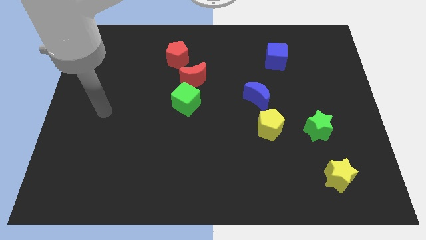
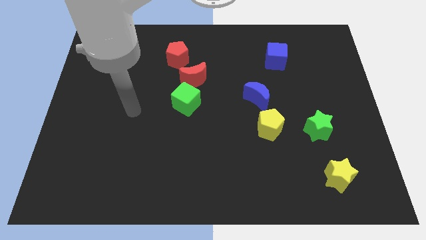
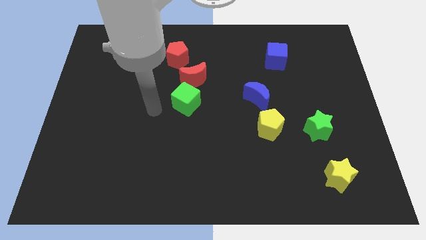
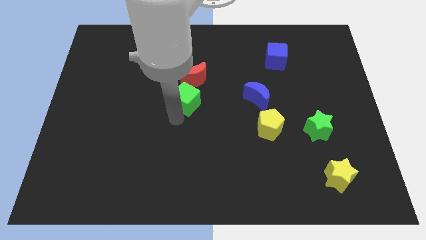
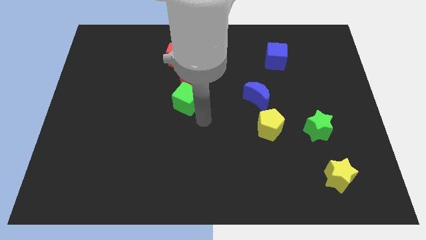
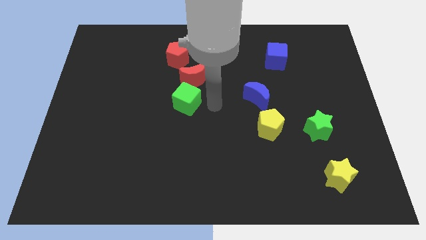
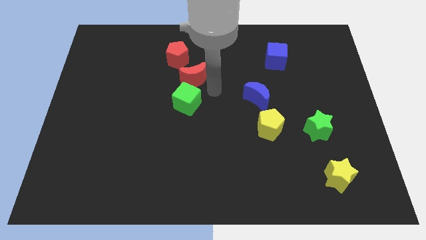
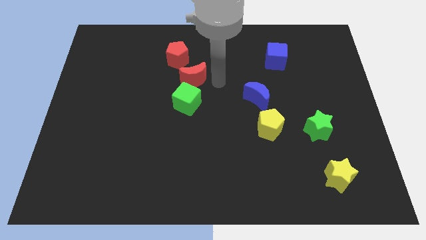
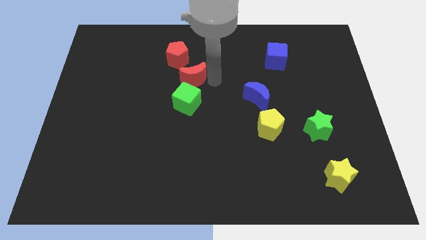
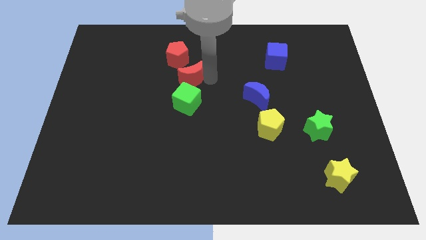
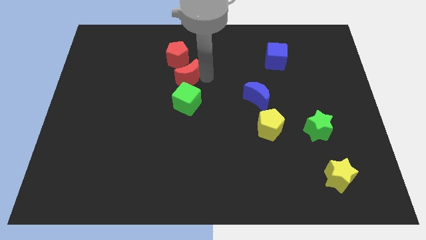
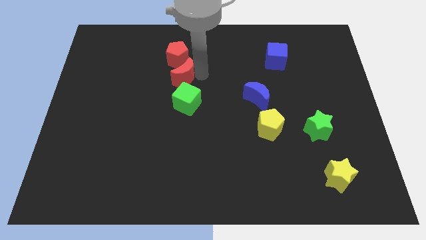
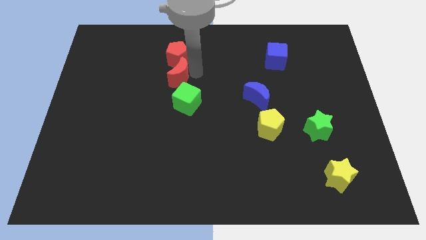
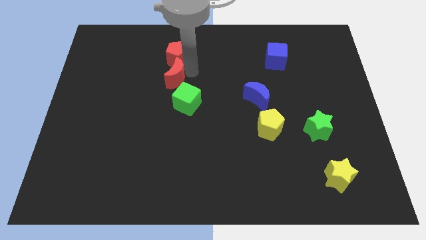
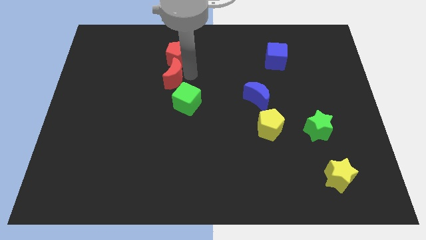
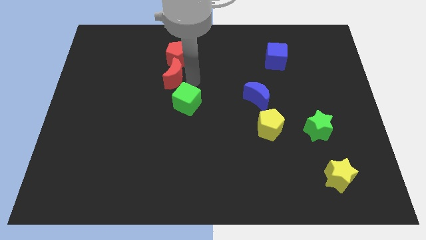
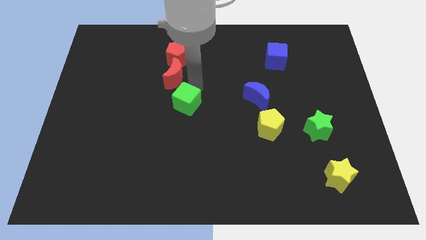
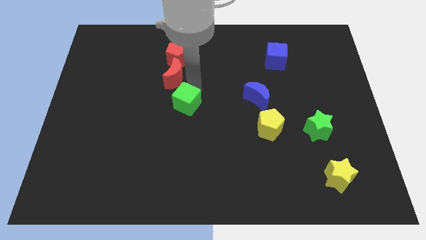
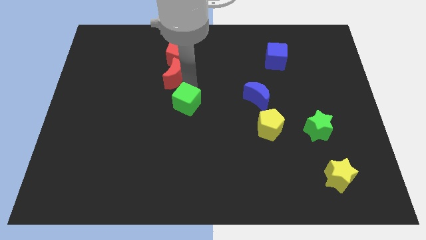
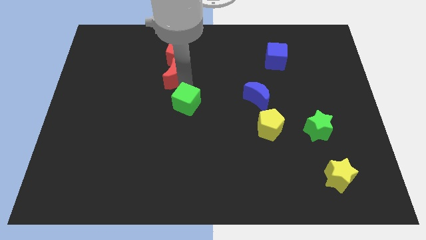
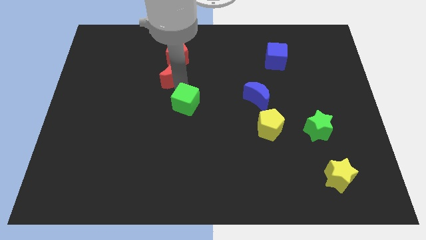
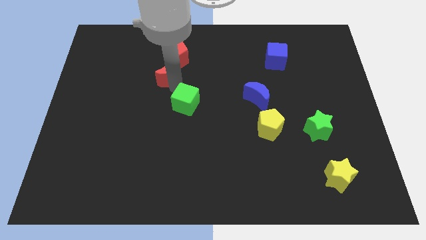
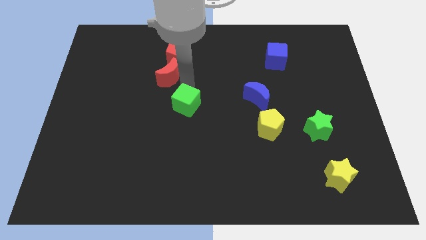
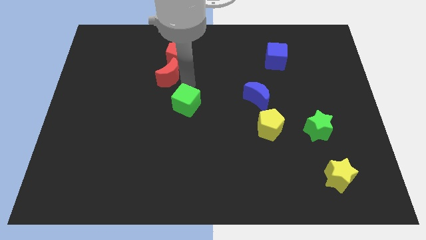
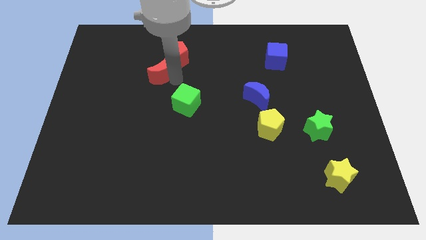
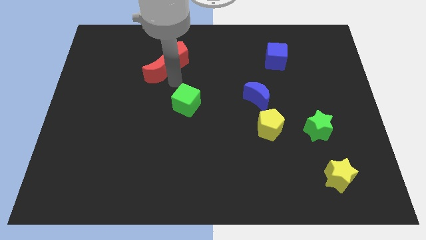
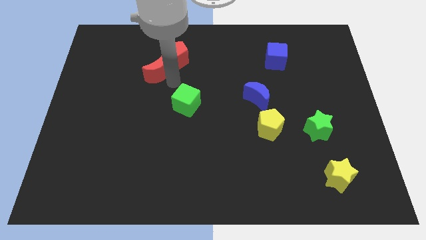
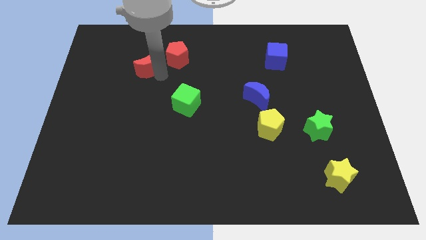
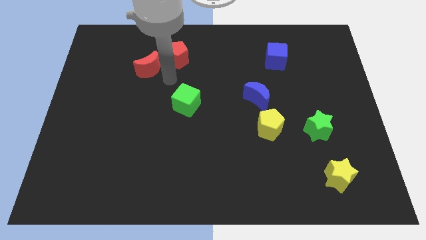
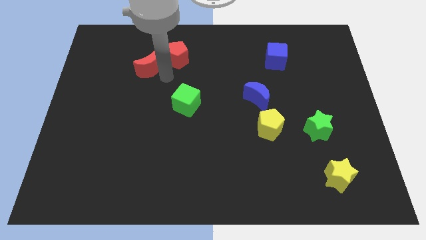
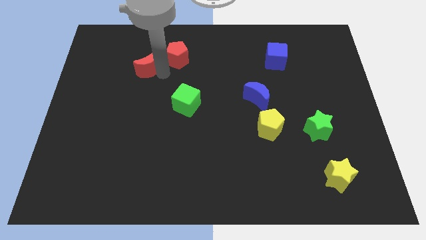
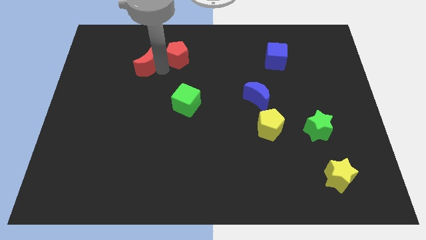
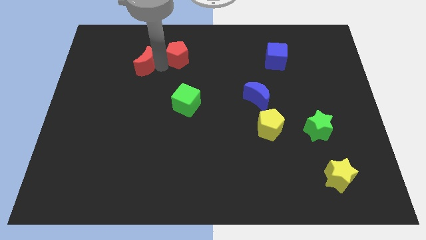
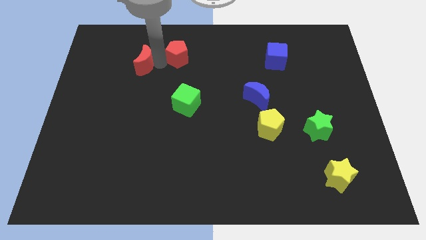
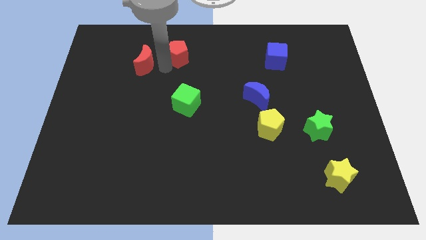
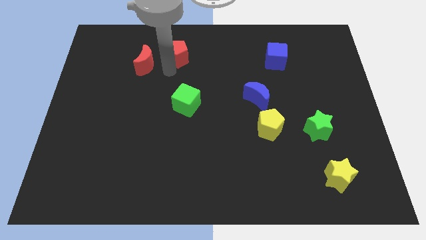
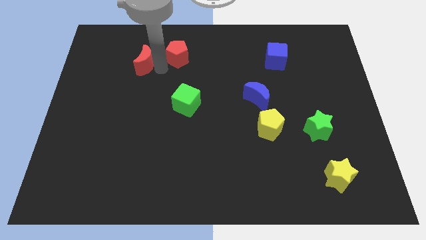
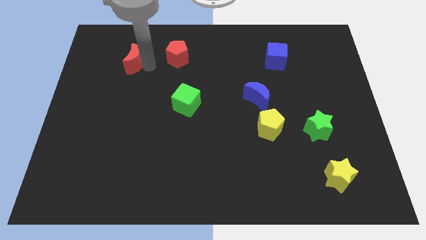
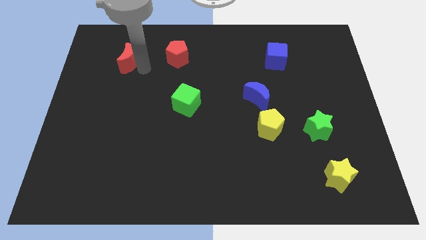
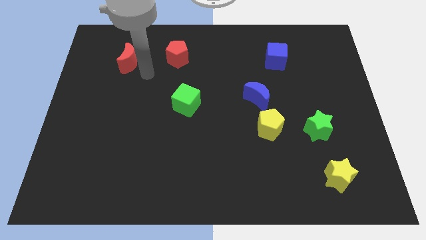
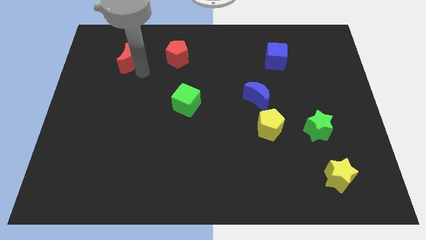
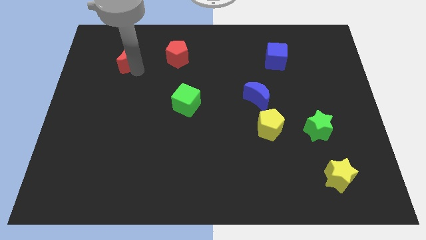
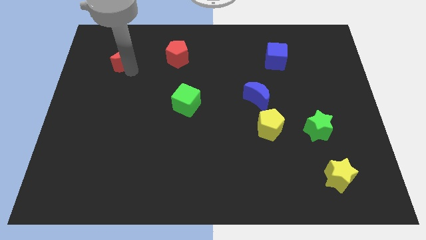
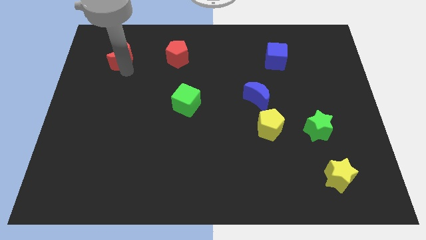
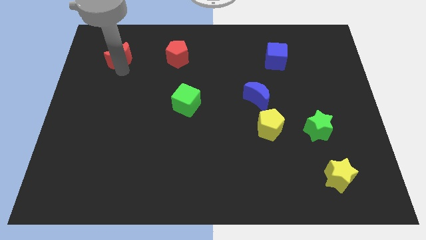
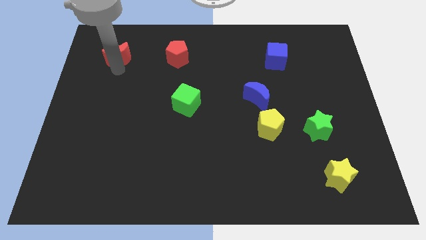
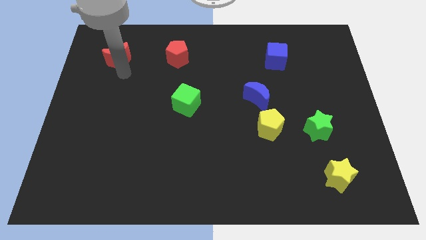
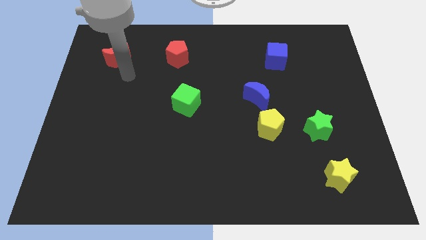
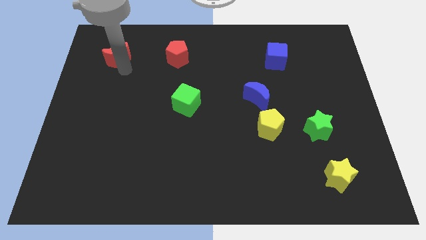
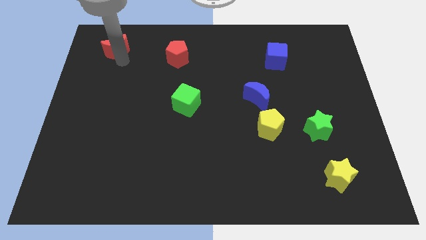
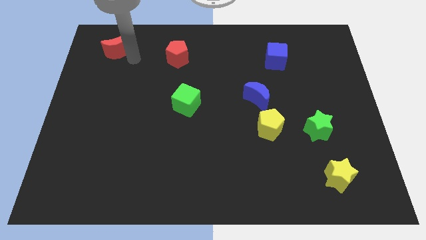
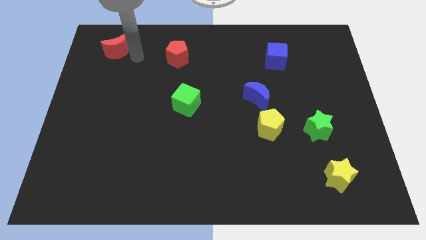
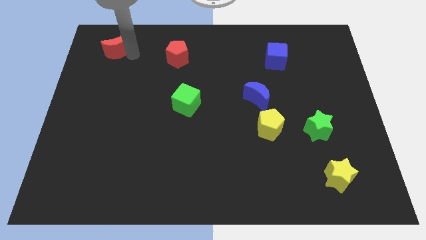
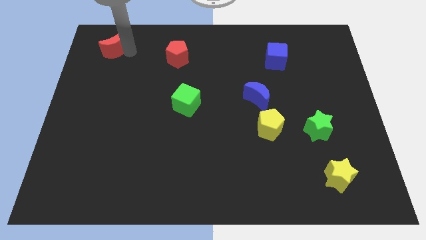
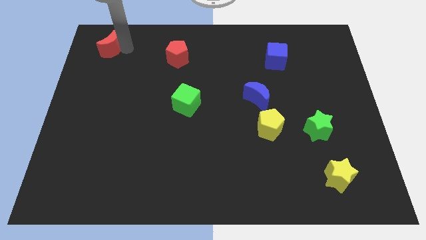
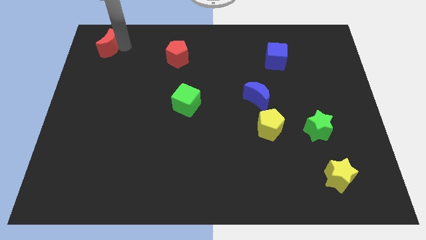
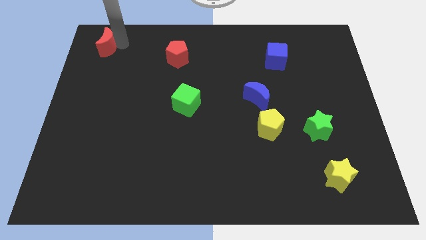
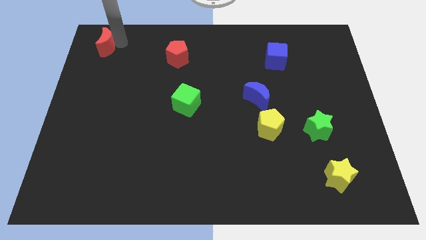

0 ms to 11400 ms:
slide the red moon to the top left corner

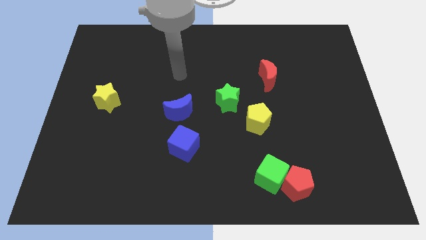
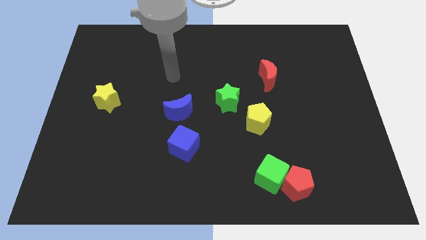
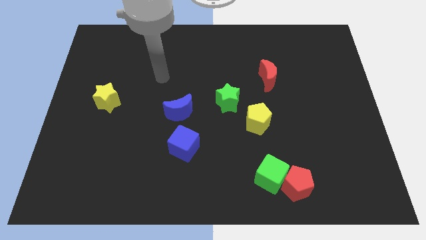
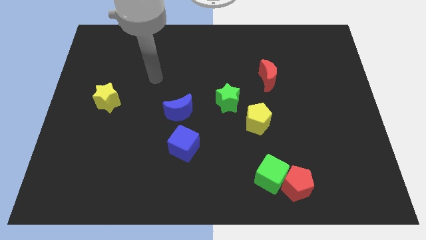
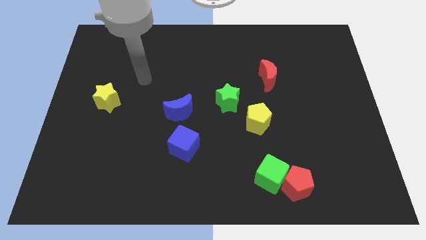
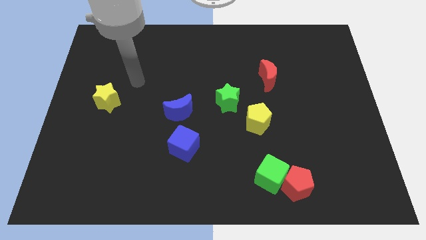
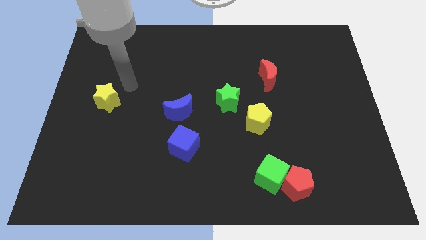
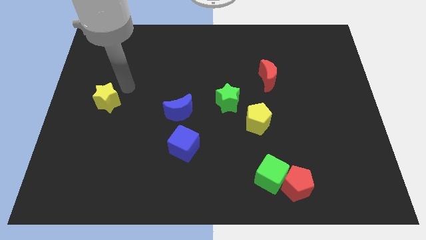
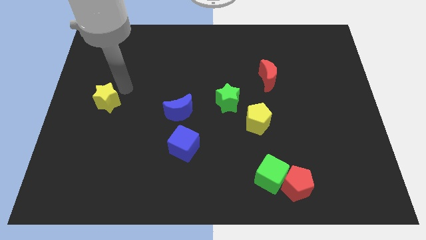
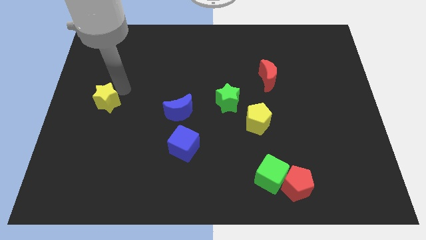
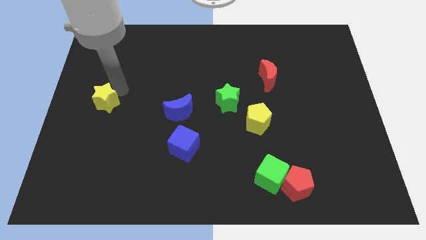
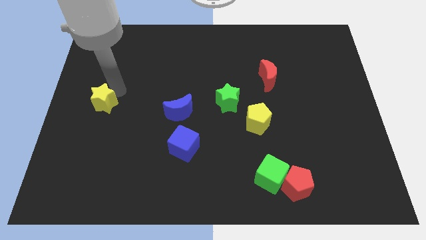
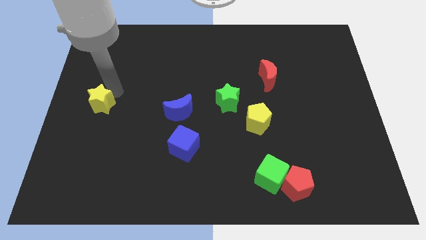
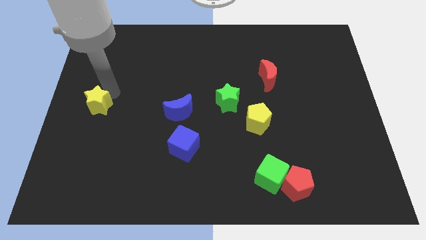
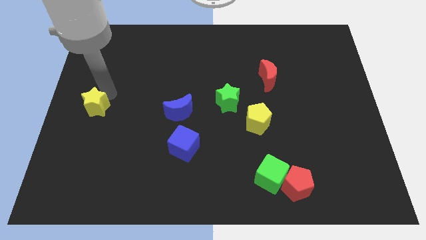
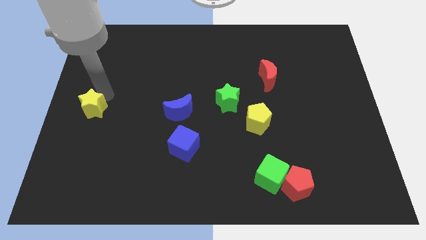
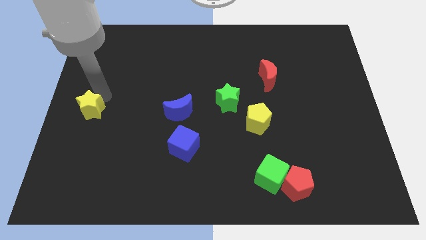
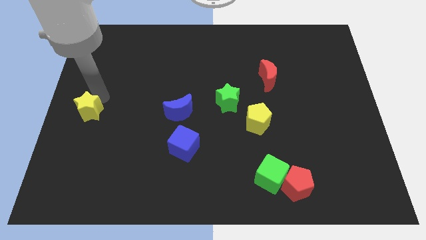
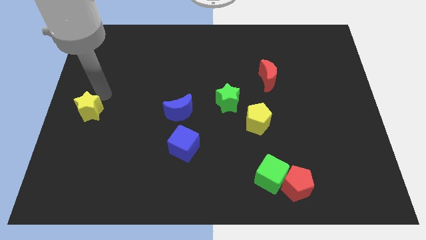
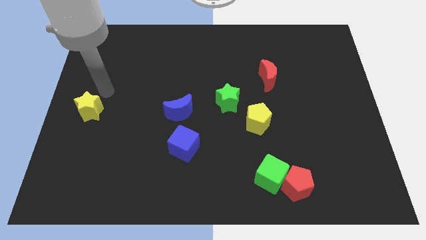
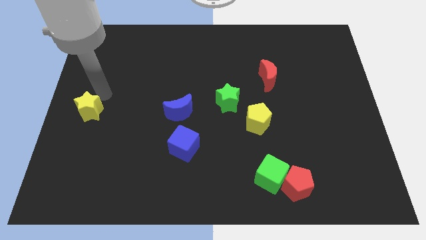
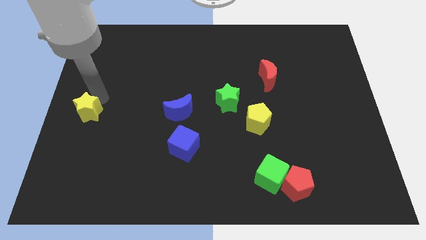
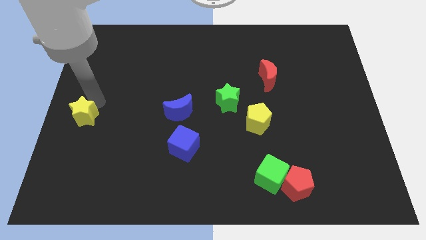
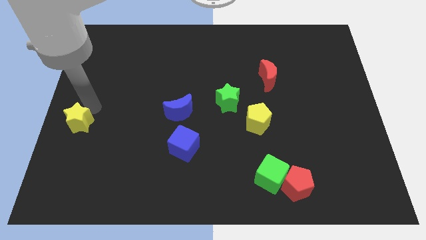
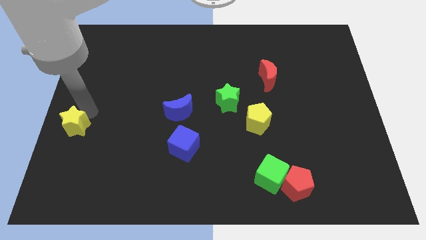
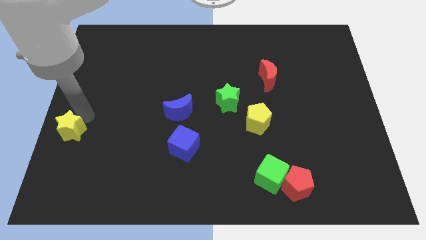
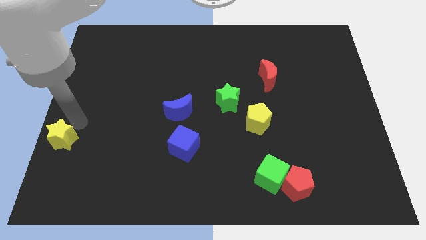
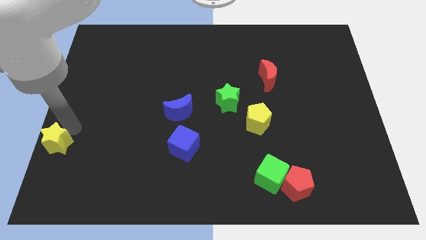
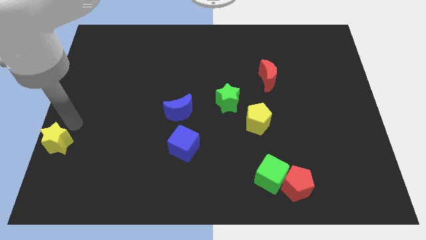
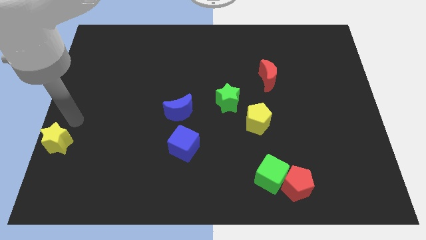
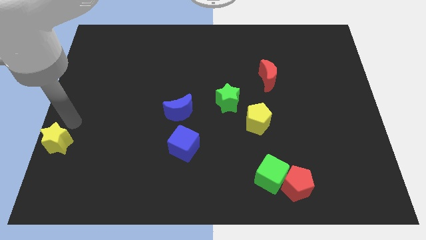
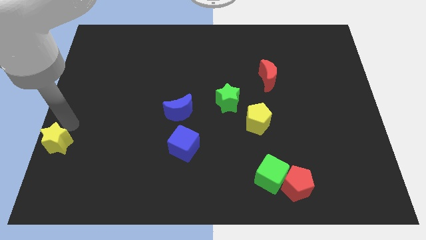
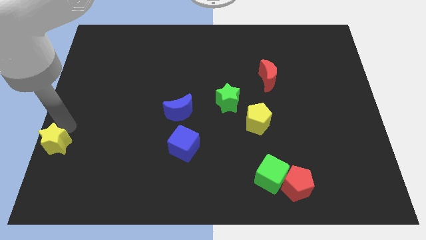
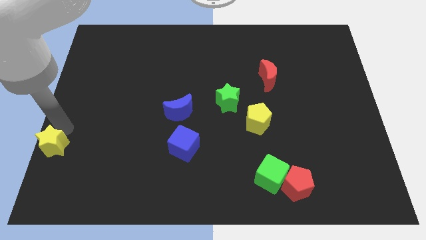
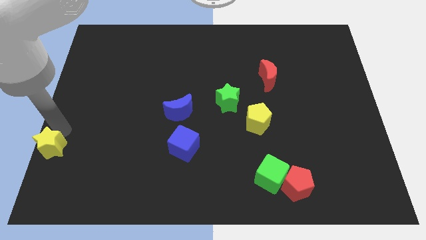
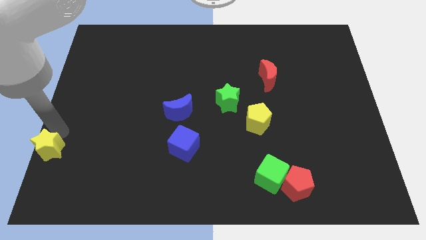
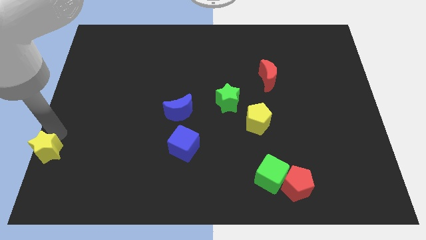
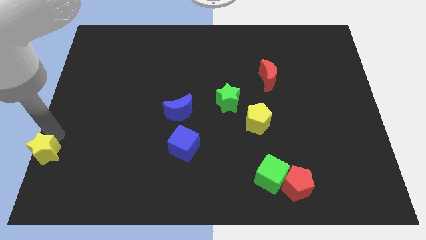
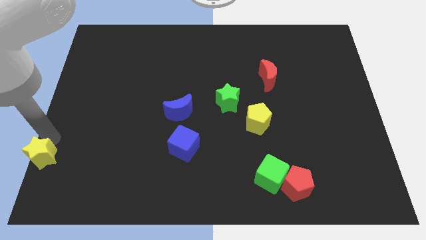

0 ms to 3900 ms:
put the yellow star to the bottom left corner
